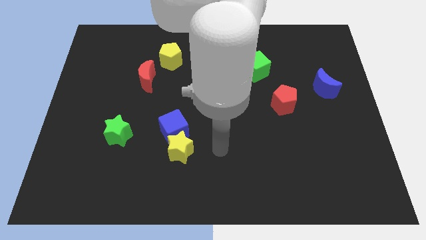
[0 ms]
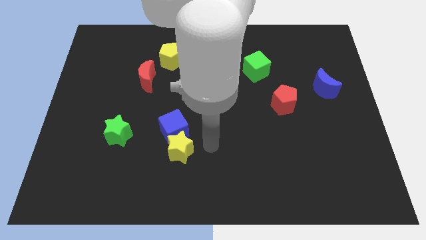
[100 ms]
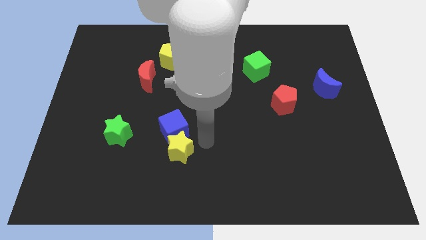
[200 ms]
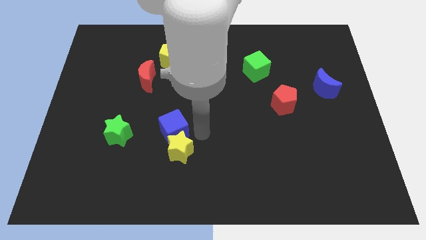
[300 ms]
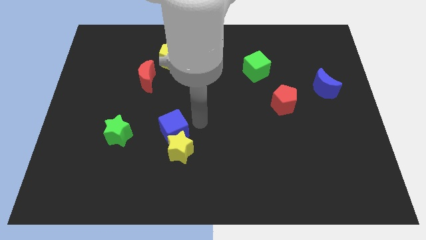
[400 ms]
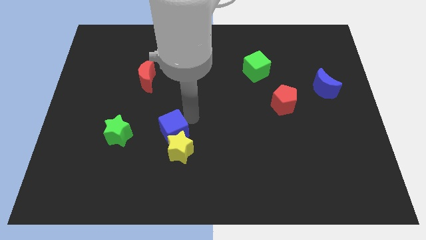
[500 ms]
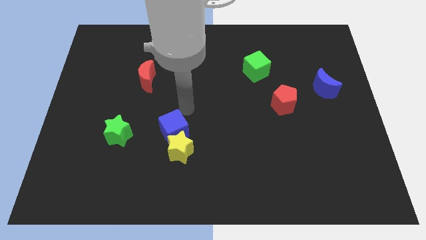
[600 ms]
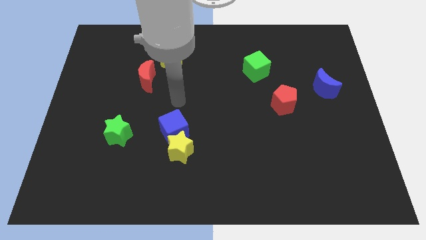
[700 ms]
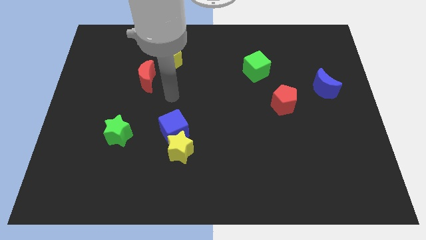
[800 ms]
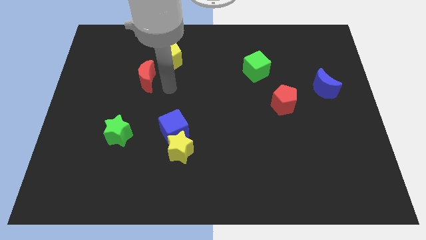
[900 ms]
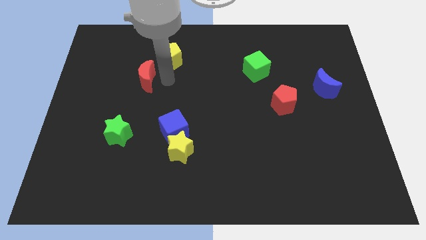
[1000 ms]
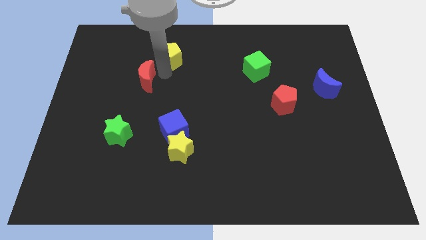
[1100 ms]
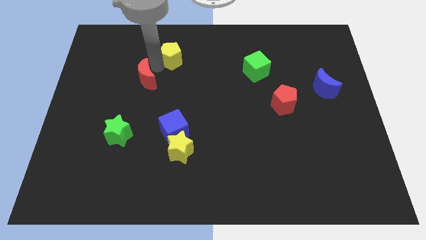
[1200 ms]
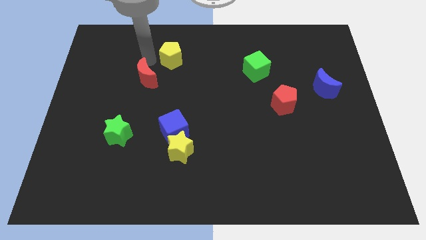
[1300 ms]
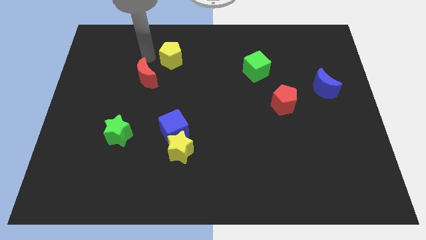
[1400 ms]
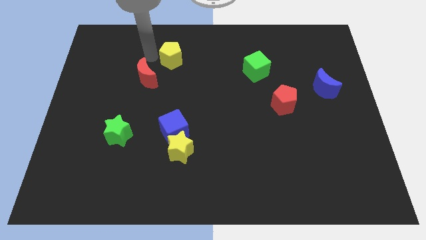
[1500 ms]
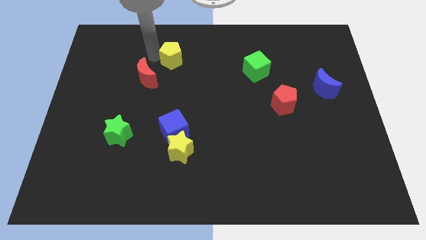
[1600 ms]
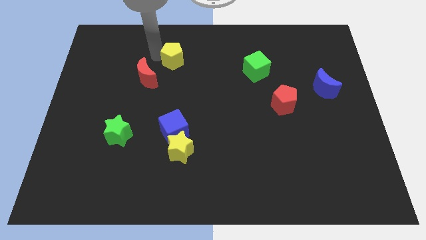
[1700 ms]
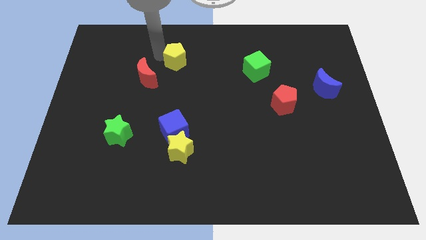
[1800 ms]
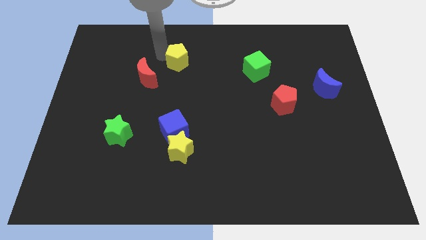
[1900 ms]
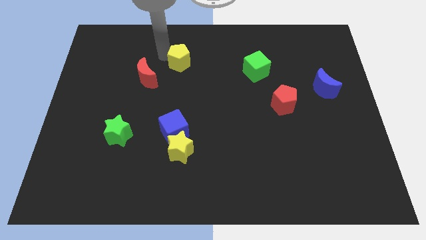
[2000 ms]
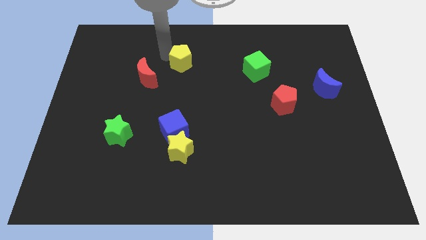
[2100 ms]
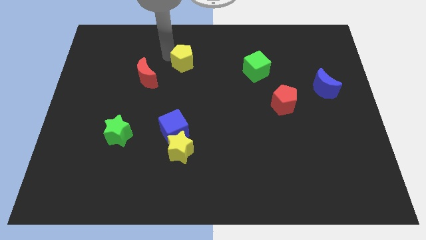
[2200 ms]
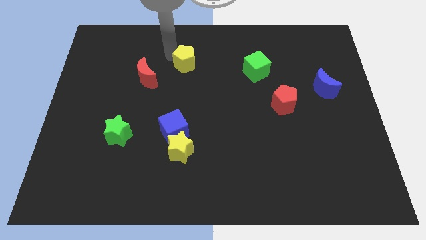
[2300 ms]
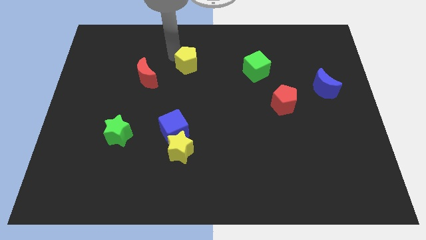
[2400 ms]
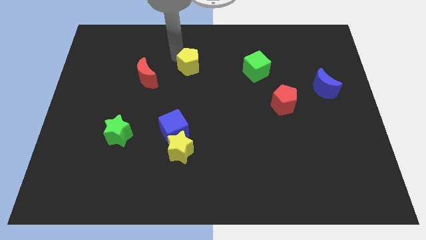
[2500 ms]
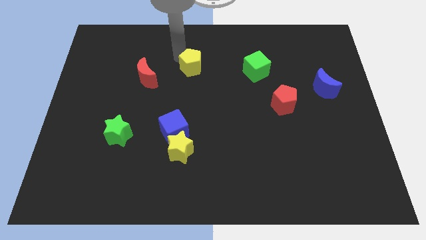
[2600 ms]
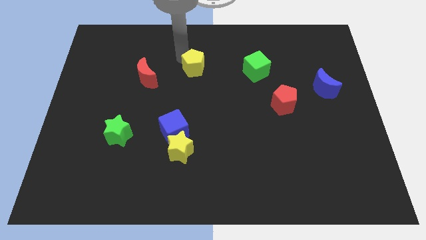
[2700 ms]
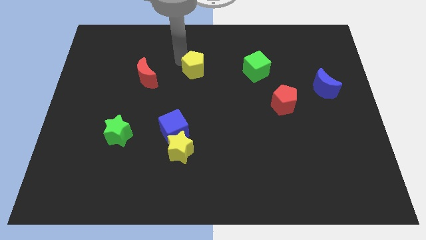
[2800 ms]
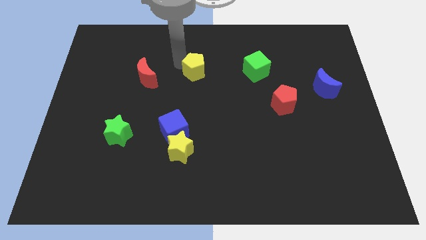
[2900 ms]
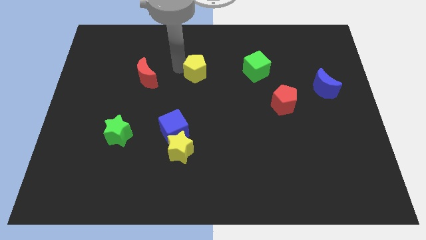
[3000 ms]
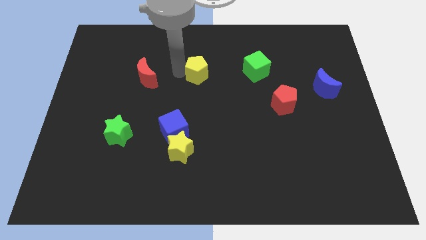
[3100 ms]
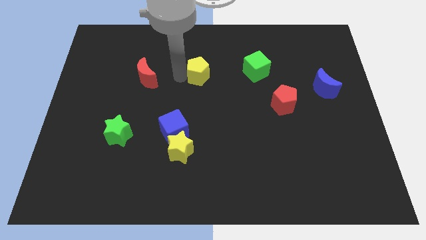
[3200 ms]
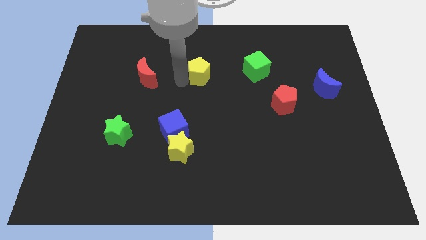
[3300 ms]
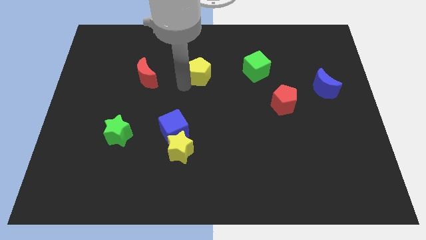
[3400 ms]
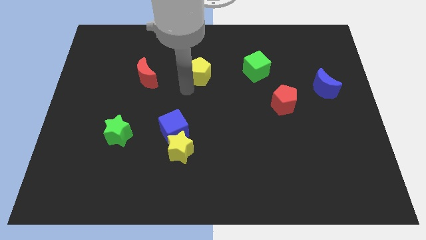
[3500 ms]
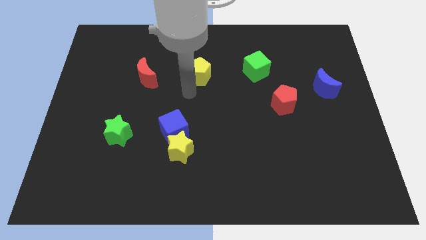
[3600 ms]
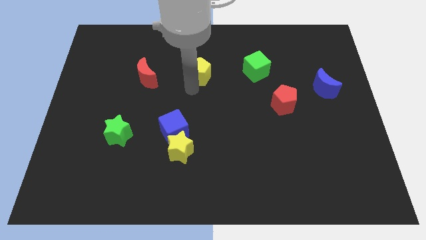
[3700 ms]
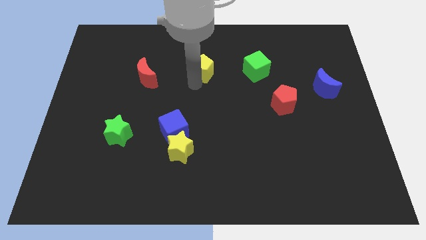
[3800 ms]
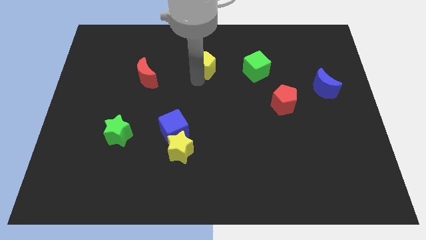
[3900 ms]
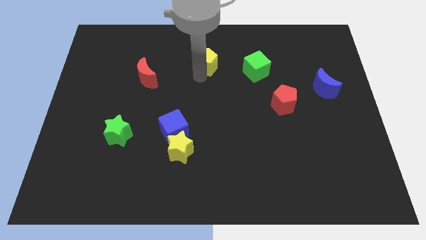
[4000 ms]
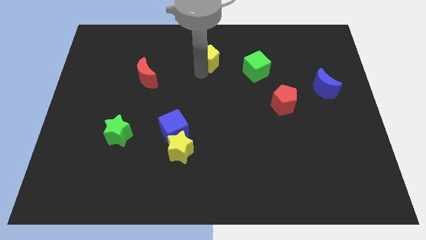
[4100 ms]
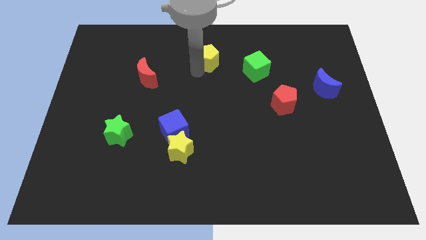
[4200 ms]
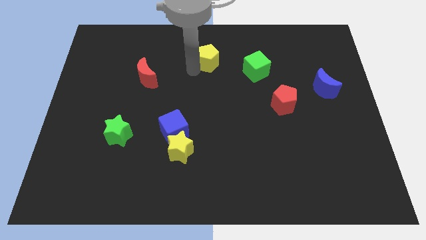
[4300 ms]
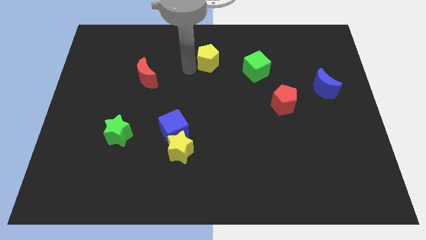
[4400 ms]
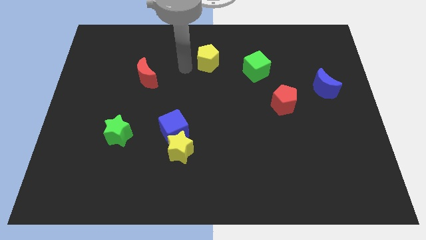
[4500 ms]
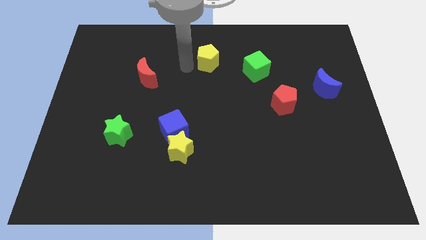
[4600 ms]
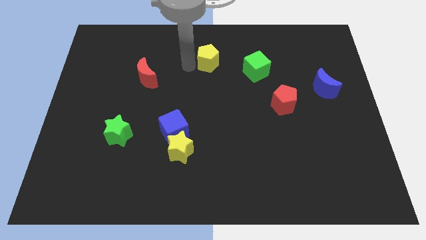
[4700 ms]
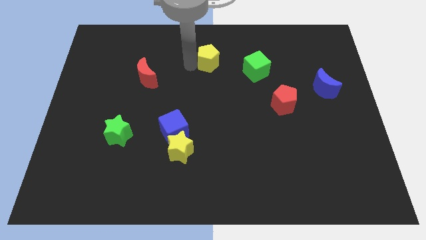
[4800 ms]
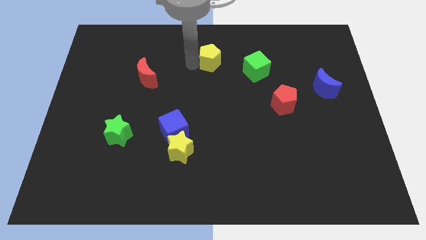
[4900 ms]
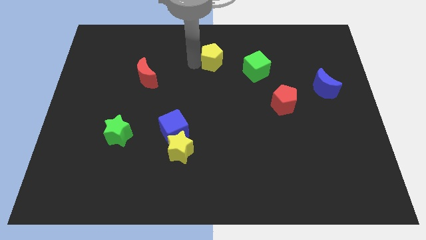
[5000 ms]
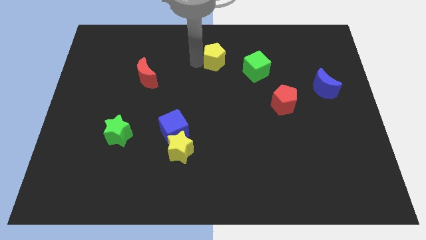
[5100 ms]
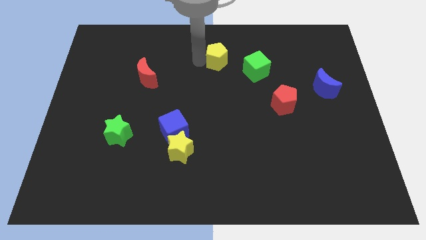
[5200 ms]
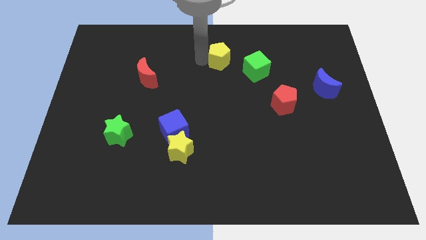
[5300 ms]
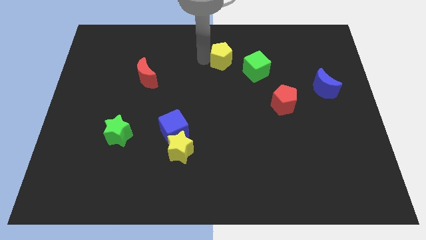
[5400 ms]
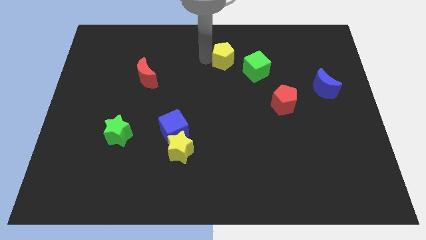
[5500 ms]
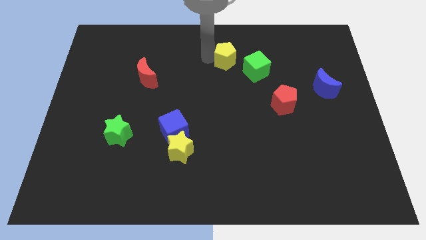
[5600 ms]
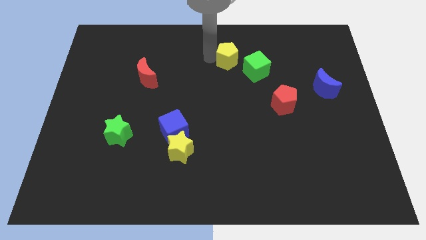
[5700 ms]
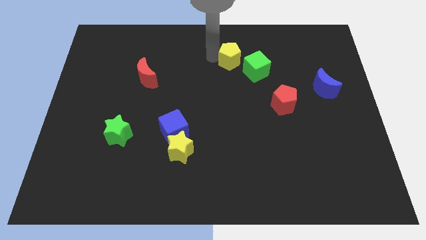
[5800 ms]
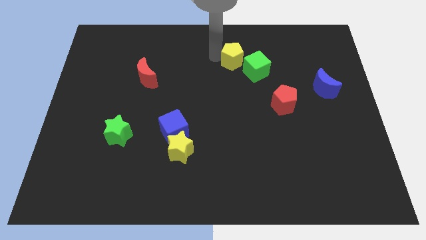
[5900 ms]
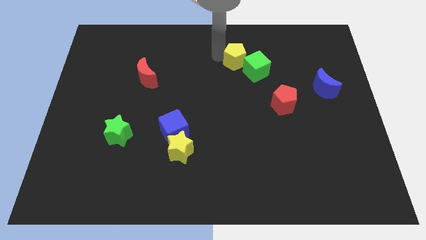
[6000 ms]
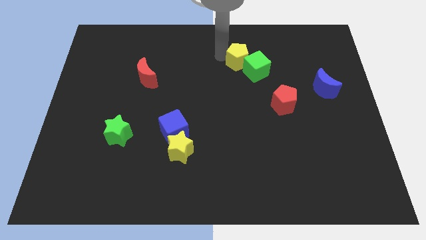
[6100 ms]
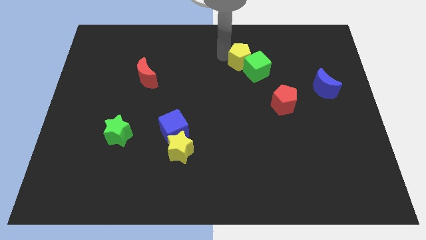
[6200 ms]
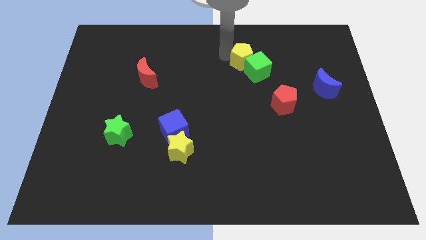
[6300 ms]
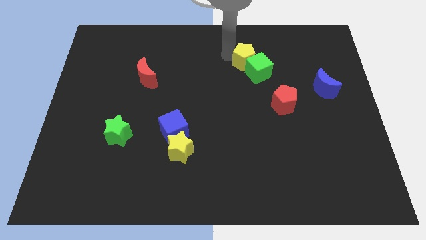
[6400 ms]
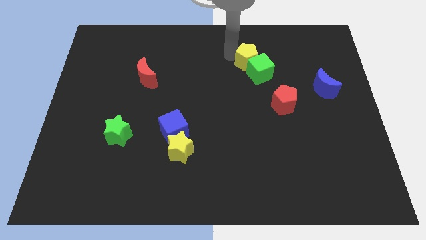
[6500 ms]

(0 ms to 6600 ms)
move the yellow pentagon to the right

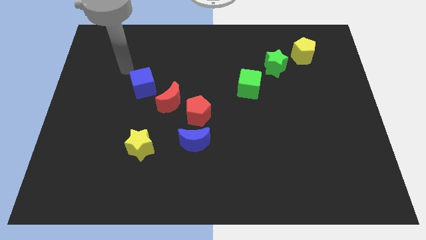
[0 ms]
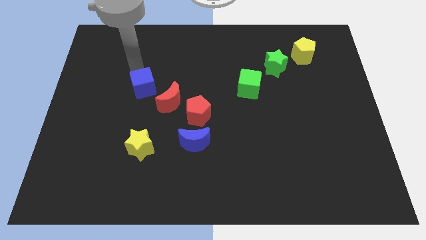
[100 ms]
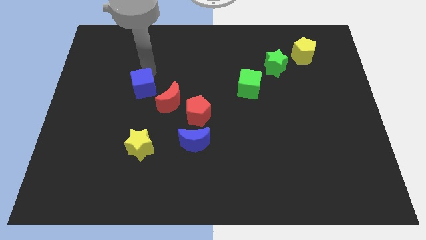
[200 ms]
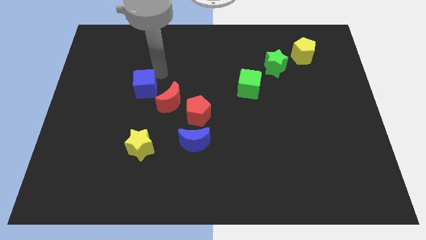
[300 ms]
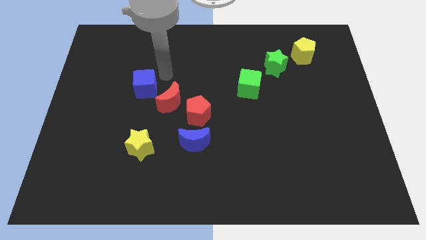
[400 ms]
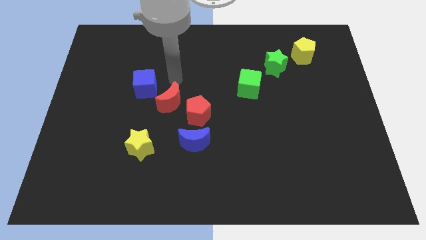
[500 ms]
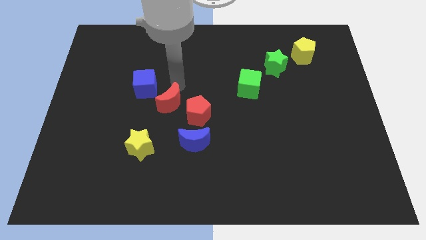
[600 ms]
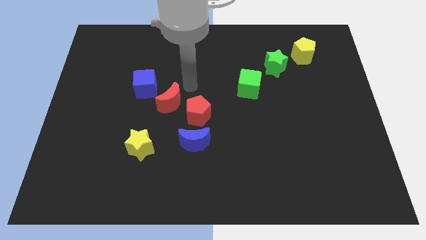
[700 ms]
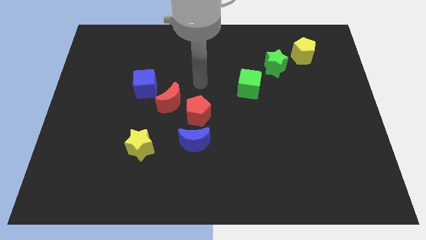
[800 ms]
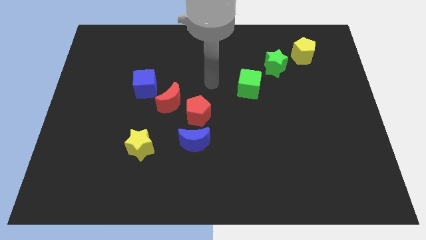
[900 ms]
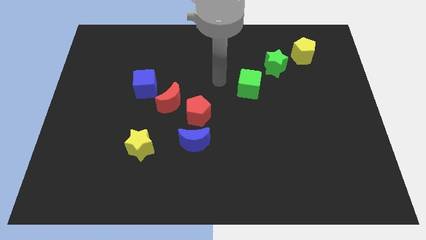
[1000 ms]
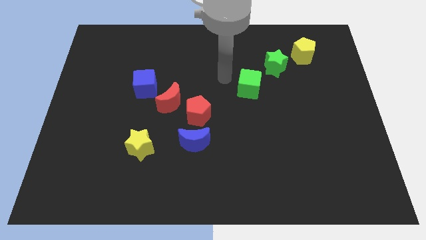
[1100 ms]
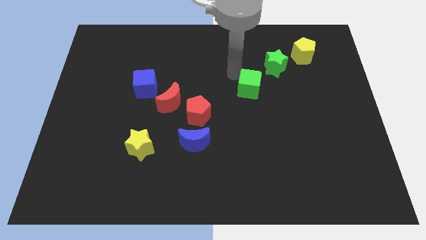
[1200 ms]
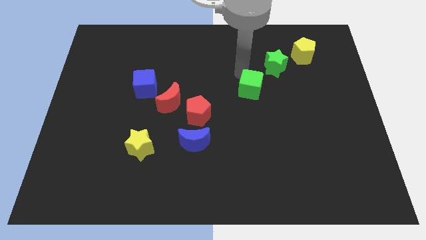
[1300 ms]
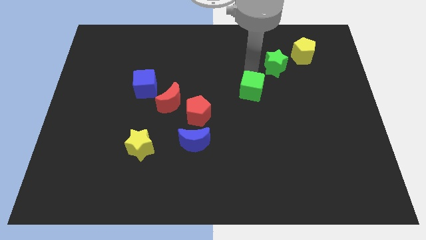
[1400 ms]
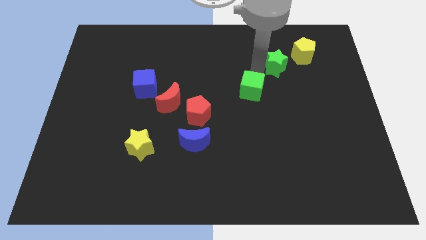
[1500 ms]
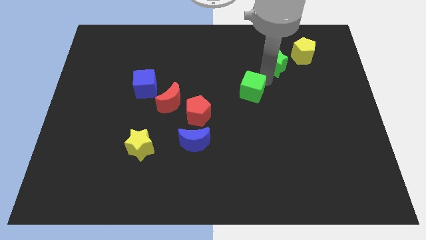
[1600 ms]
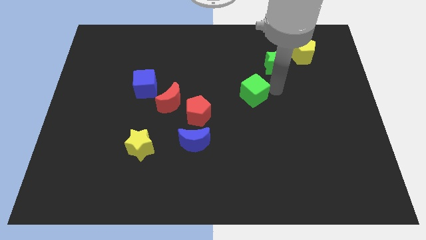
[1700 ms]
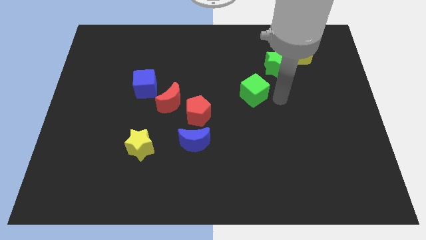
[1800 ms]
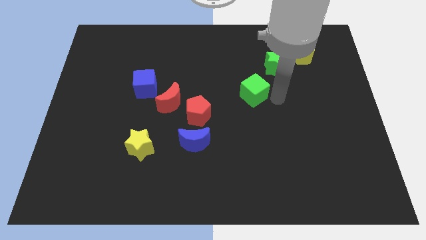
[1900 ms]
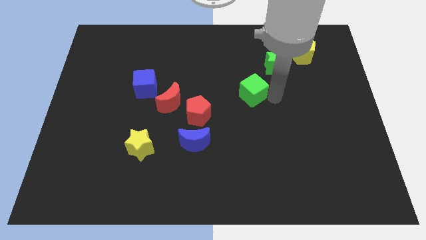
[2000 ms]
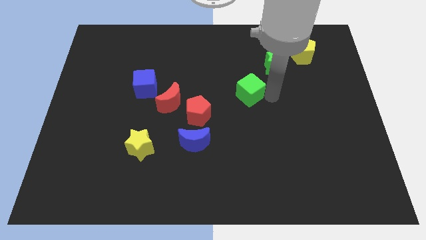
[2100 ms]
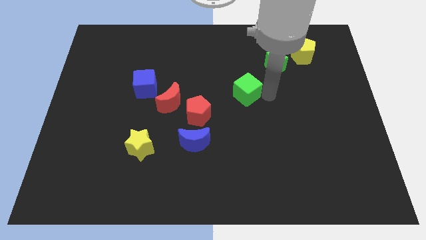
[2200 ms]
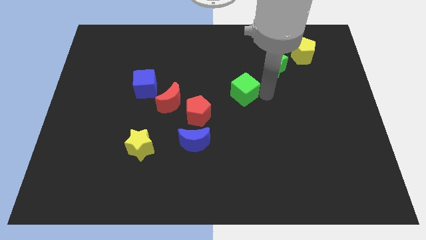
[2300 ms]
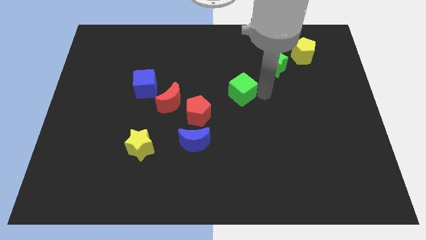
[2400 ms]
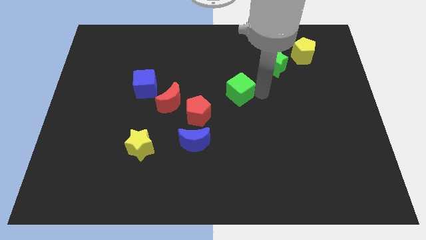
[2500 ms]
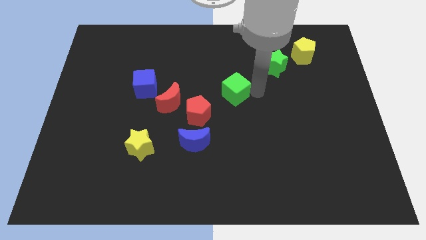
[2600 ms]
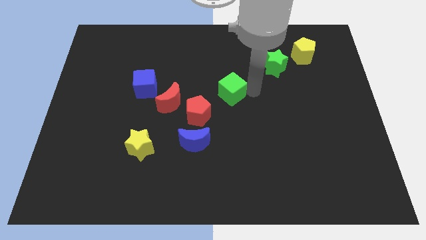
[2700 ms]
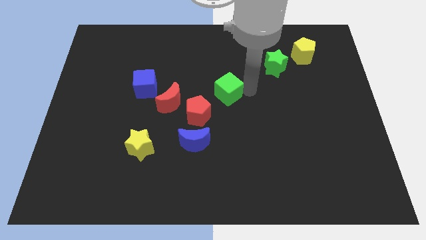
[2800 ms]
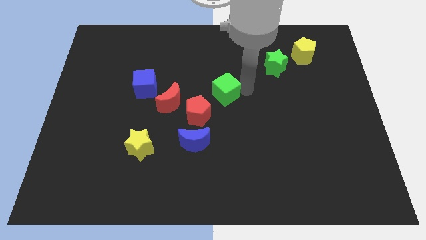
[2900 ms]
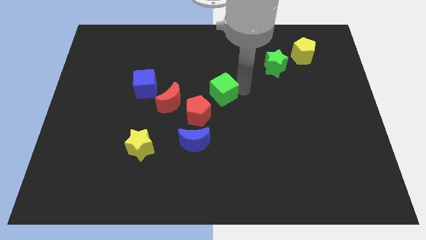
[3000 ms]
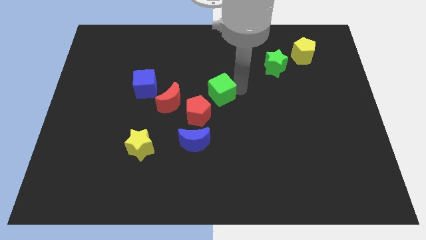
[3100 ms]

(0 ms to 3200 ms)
slide the green cube left a little bit
